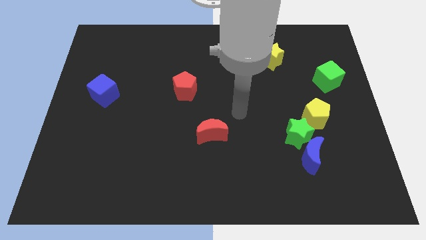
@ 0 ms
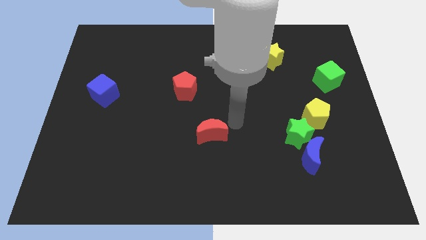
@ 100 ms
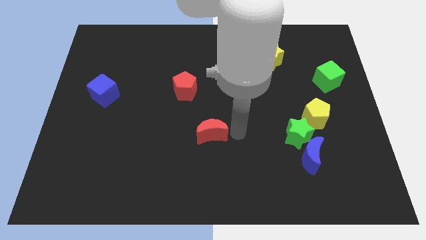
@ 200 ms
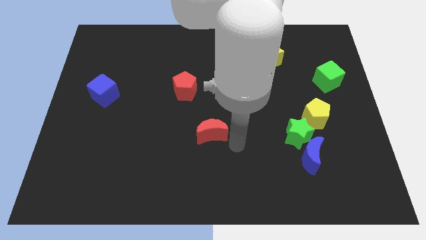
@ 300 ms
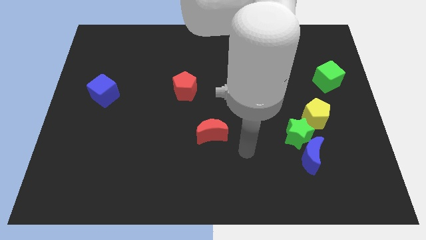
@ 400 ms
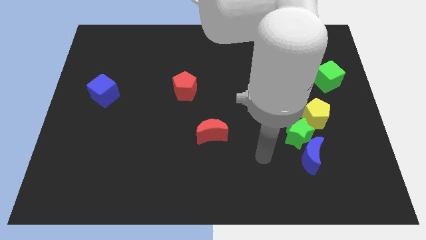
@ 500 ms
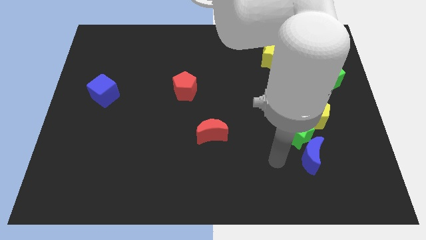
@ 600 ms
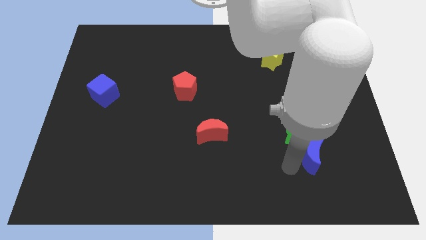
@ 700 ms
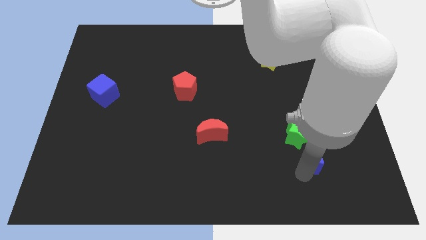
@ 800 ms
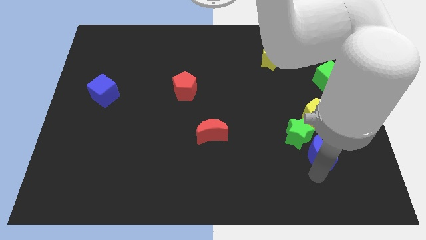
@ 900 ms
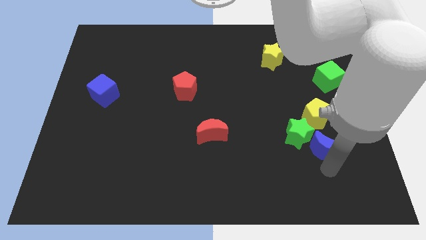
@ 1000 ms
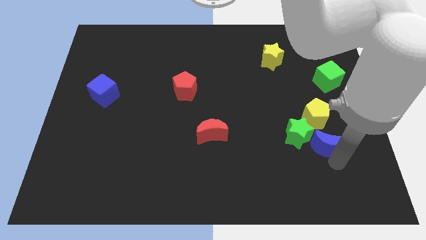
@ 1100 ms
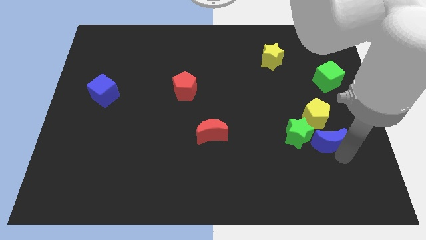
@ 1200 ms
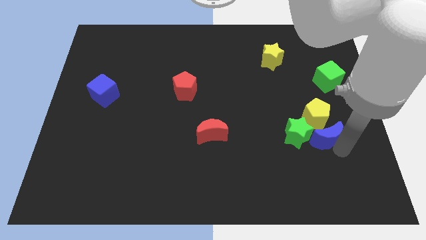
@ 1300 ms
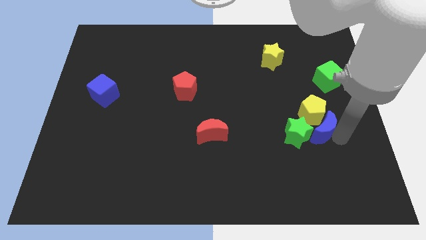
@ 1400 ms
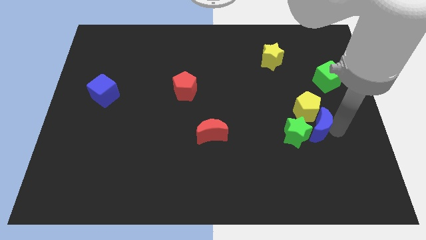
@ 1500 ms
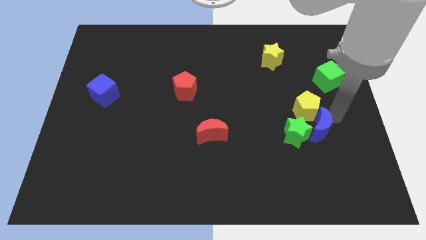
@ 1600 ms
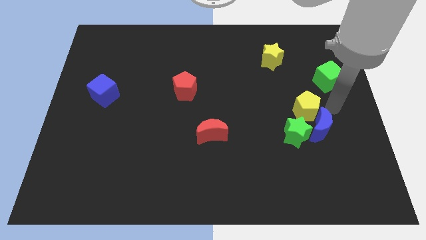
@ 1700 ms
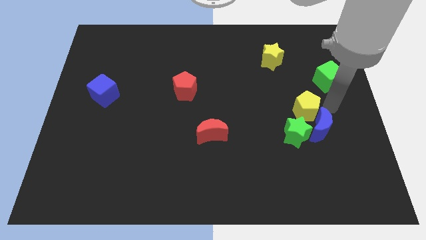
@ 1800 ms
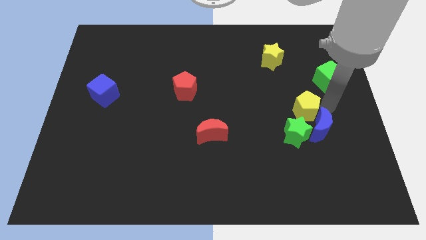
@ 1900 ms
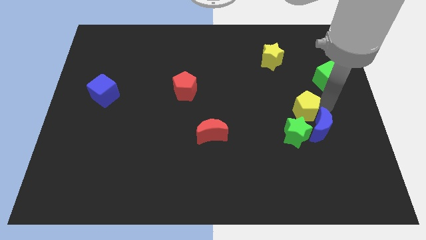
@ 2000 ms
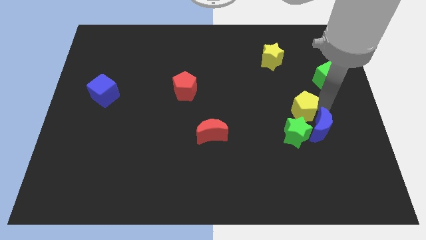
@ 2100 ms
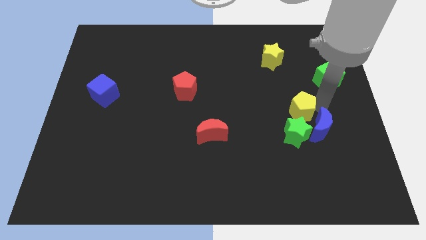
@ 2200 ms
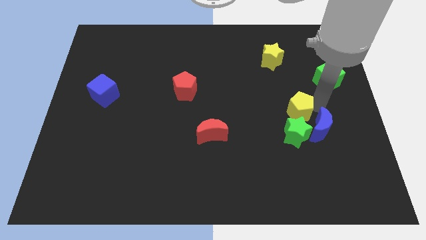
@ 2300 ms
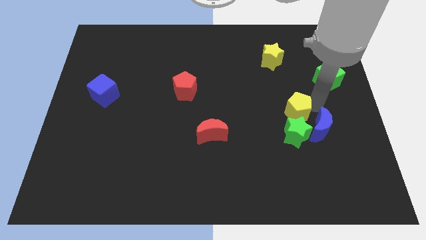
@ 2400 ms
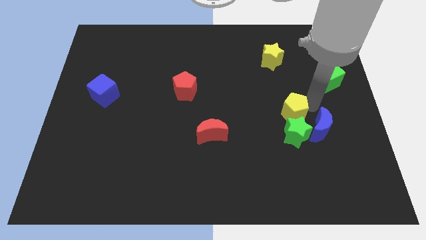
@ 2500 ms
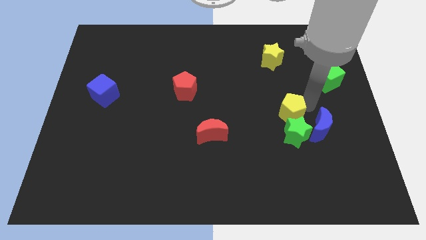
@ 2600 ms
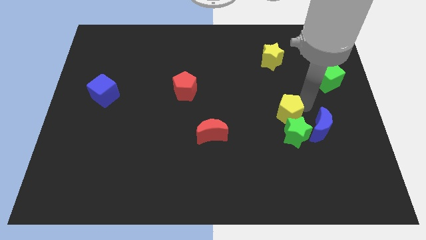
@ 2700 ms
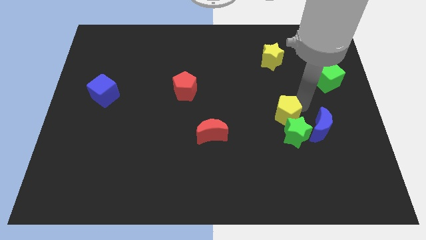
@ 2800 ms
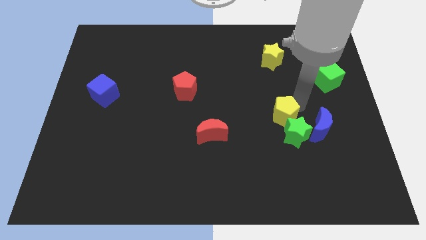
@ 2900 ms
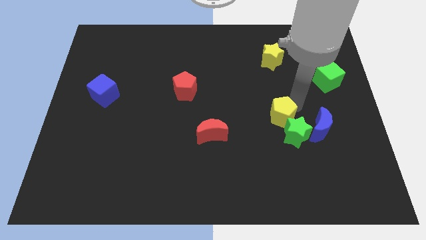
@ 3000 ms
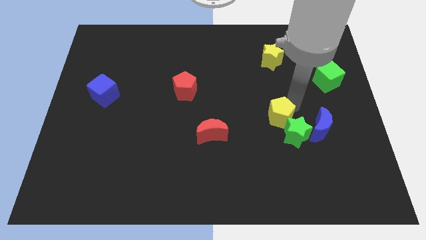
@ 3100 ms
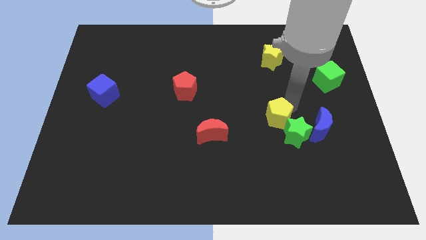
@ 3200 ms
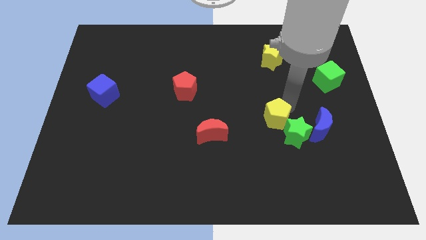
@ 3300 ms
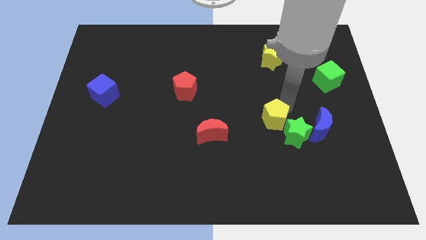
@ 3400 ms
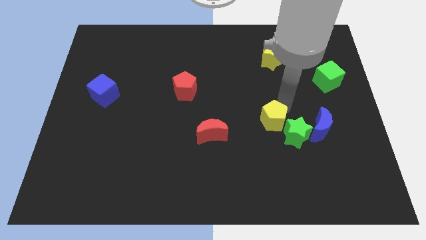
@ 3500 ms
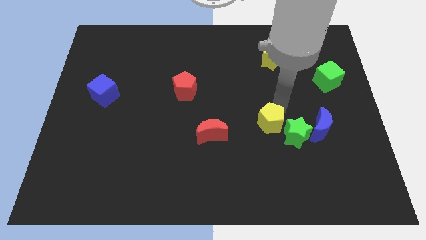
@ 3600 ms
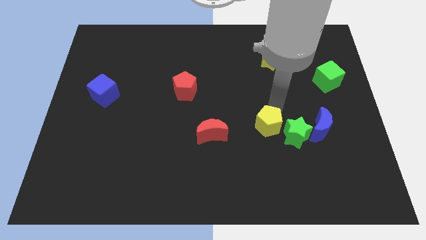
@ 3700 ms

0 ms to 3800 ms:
slightly move the yellow pentagon diagonally downwards and left

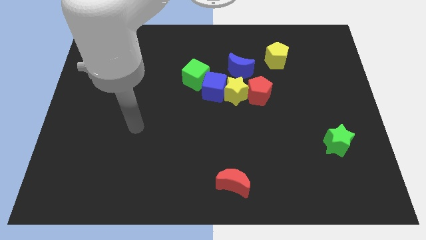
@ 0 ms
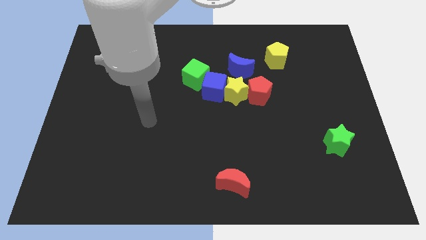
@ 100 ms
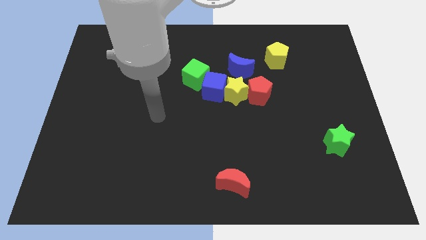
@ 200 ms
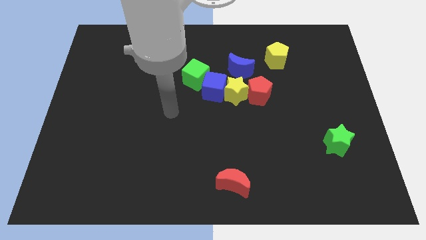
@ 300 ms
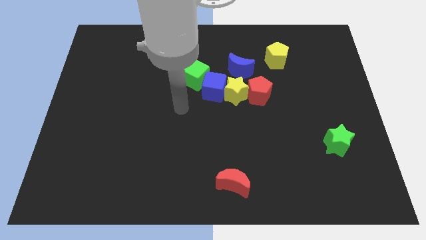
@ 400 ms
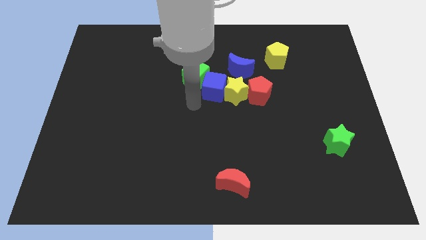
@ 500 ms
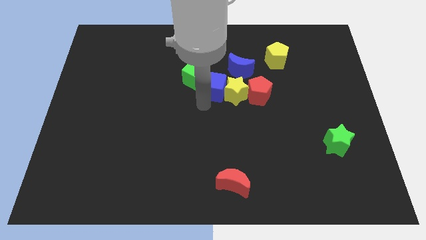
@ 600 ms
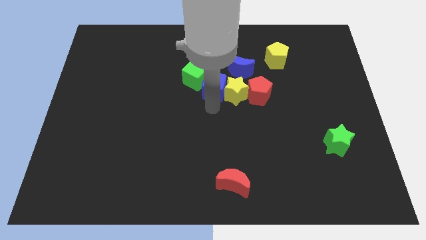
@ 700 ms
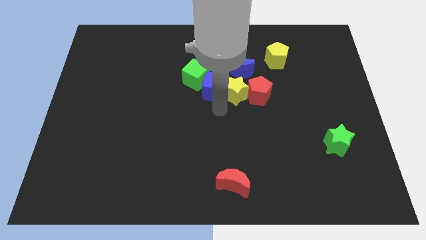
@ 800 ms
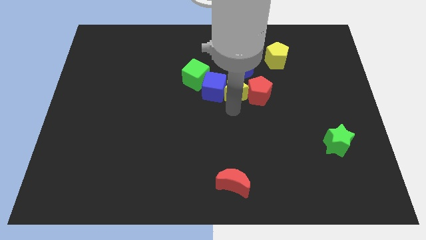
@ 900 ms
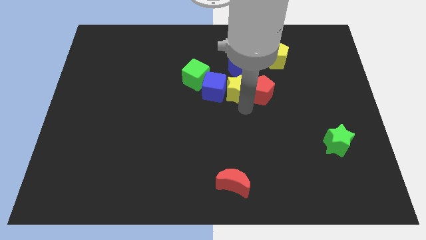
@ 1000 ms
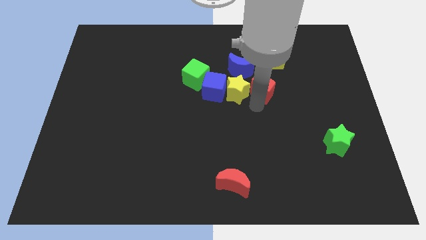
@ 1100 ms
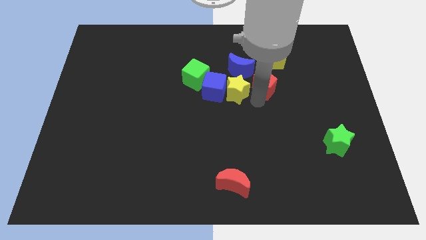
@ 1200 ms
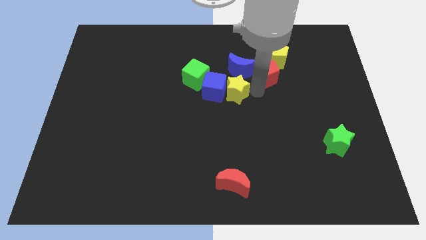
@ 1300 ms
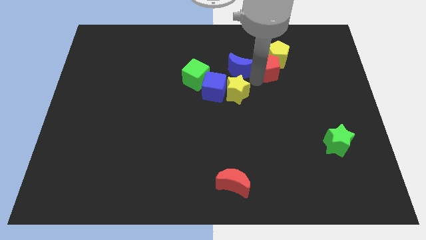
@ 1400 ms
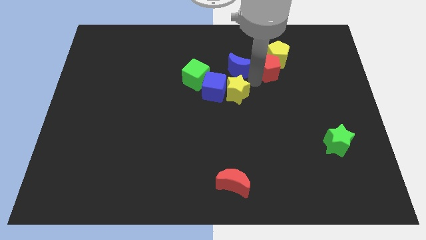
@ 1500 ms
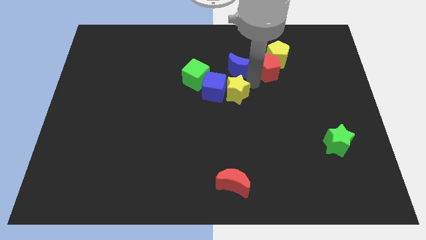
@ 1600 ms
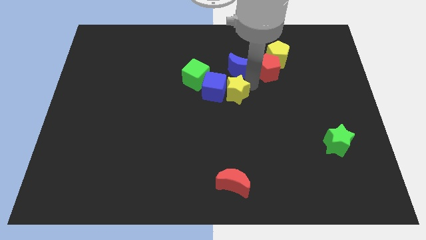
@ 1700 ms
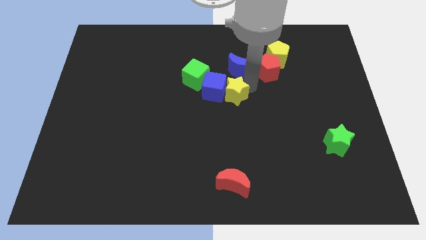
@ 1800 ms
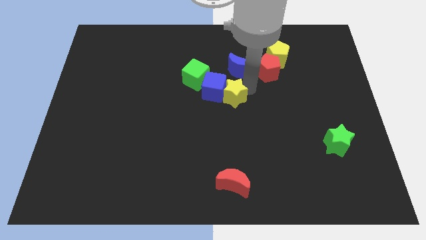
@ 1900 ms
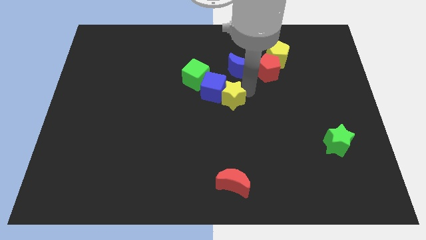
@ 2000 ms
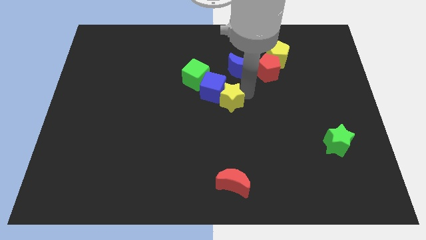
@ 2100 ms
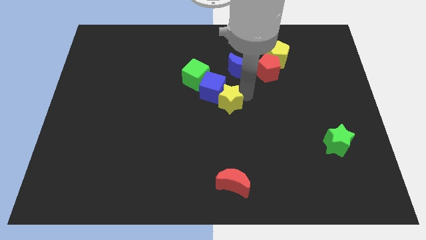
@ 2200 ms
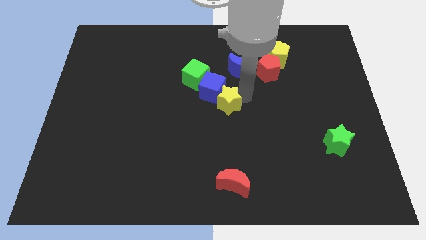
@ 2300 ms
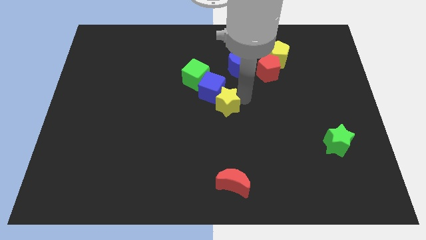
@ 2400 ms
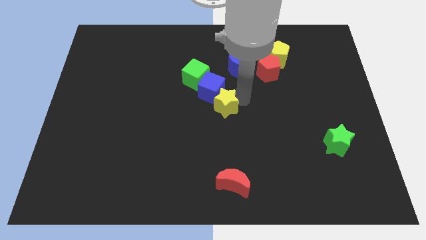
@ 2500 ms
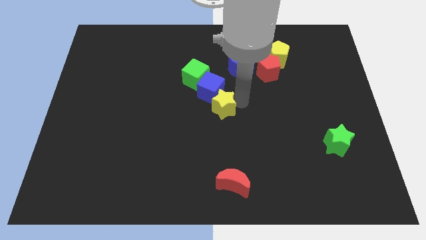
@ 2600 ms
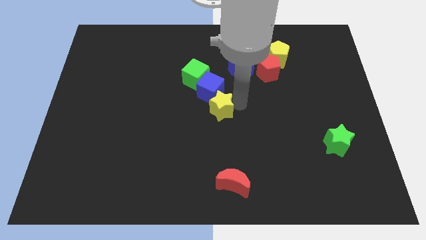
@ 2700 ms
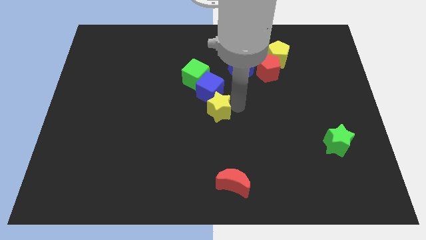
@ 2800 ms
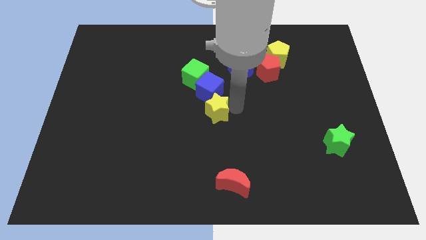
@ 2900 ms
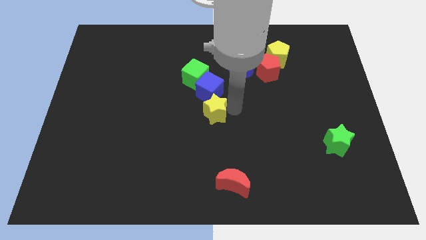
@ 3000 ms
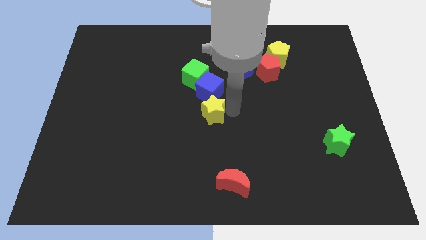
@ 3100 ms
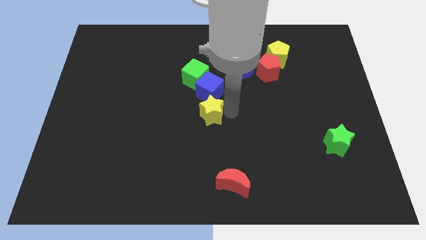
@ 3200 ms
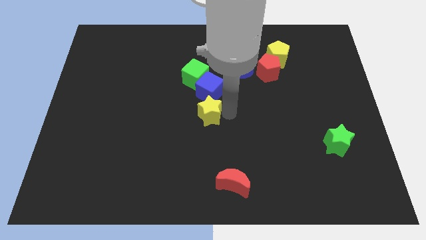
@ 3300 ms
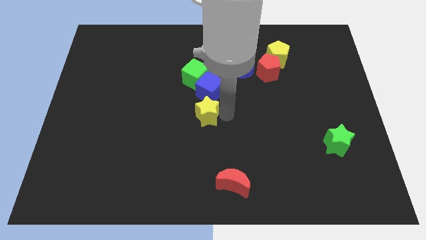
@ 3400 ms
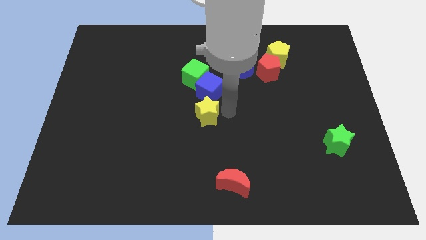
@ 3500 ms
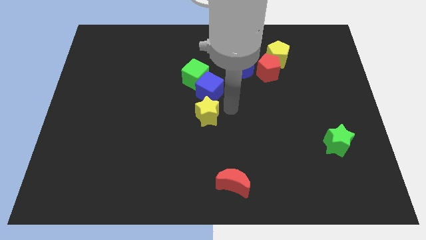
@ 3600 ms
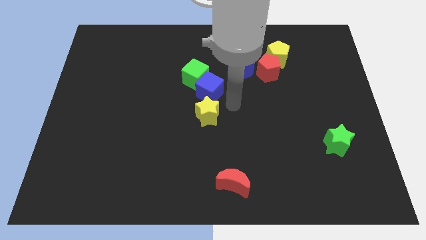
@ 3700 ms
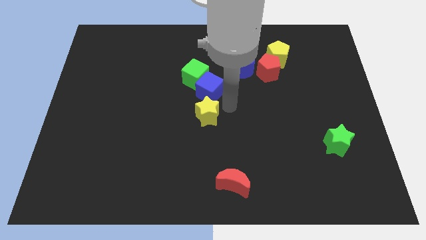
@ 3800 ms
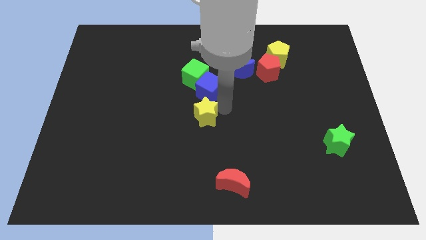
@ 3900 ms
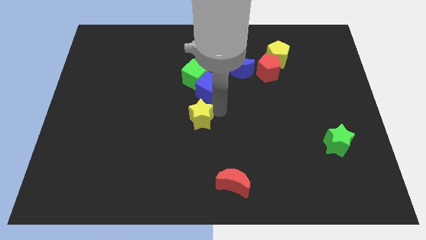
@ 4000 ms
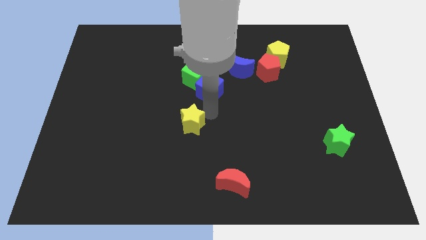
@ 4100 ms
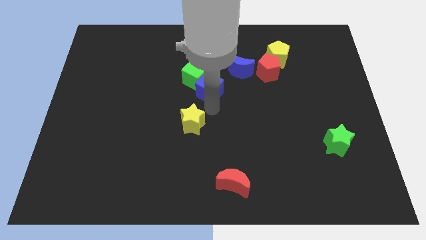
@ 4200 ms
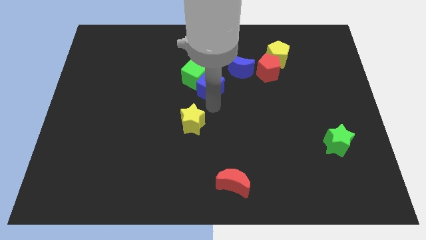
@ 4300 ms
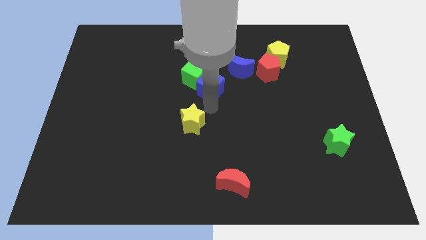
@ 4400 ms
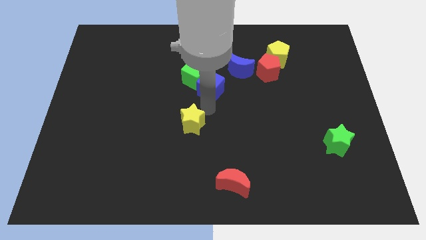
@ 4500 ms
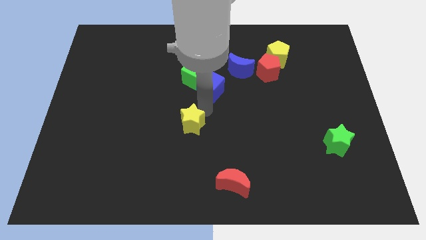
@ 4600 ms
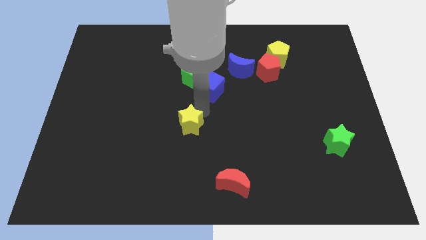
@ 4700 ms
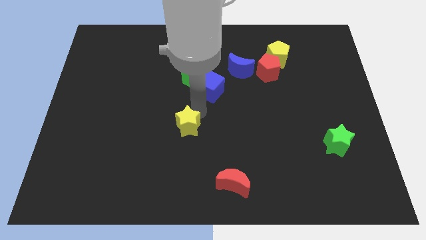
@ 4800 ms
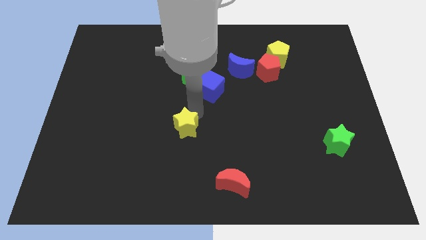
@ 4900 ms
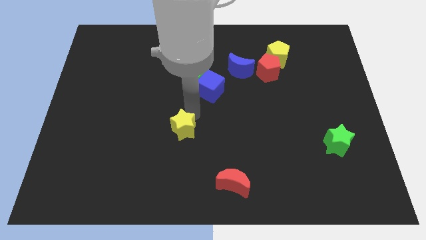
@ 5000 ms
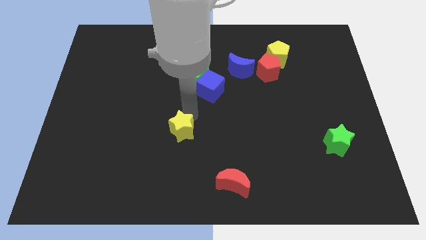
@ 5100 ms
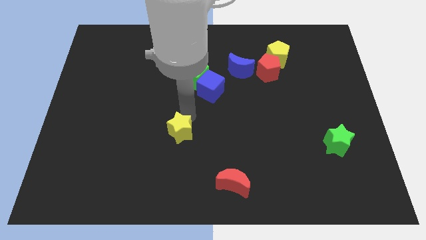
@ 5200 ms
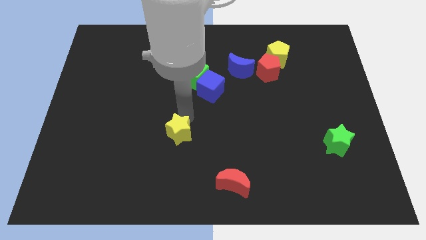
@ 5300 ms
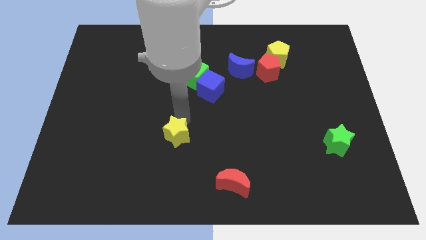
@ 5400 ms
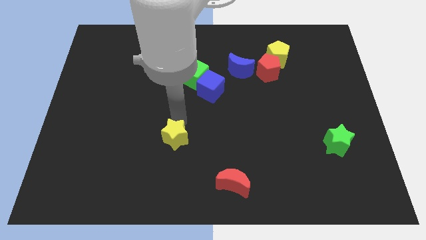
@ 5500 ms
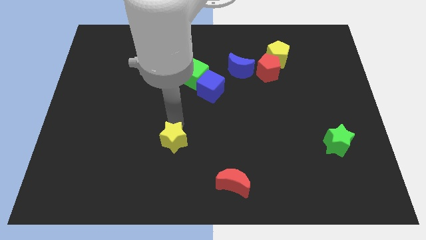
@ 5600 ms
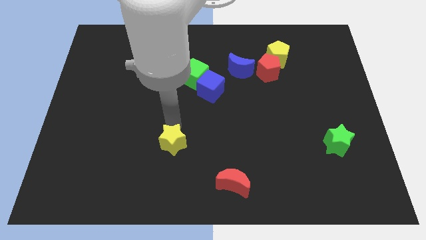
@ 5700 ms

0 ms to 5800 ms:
slide the yellow star down and to the left
